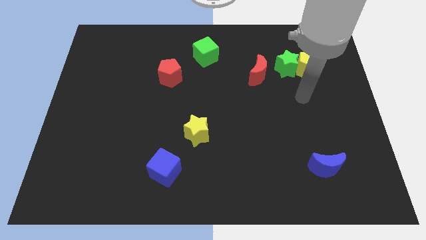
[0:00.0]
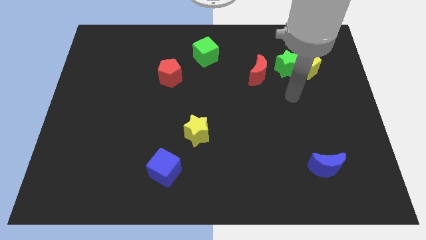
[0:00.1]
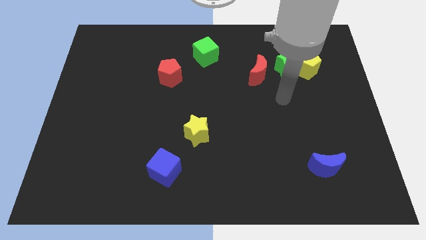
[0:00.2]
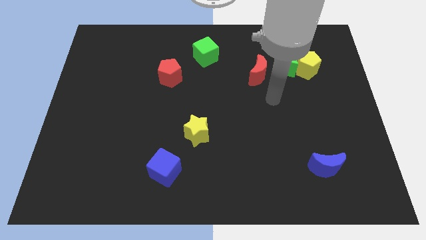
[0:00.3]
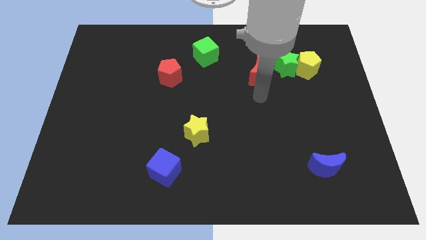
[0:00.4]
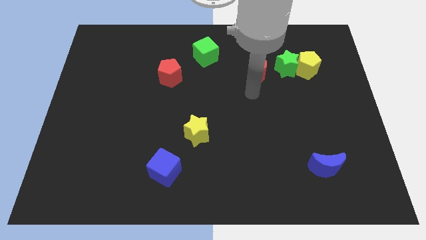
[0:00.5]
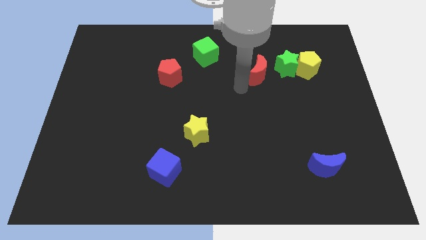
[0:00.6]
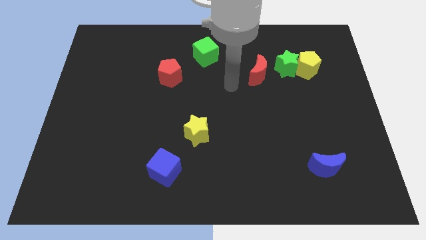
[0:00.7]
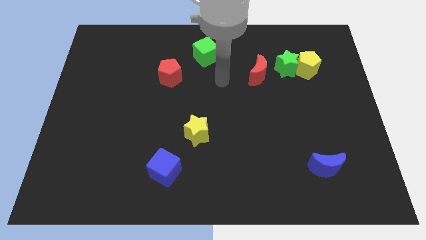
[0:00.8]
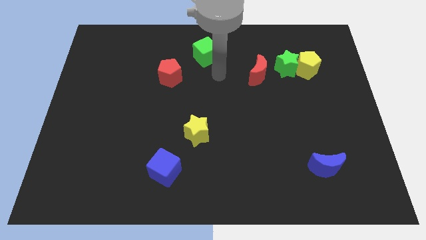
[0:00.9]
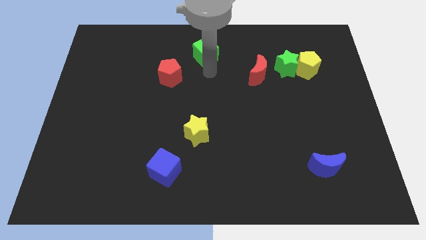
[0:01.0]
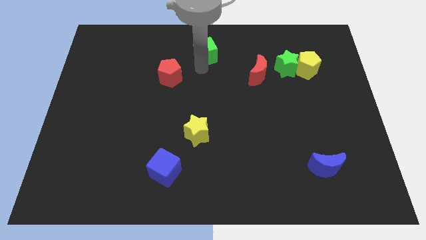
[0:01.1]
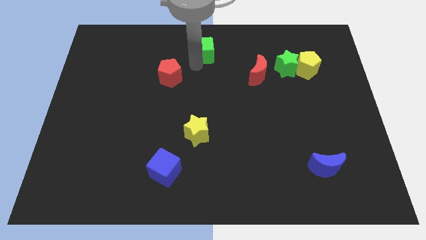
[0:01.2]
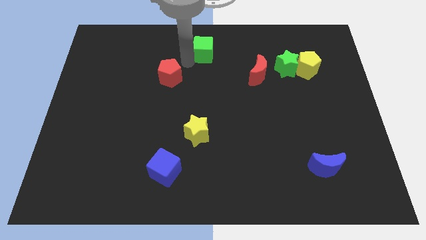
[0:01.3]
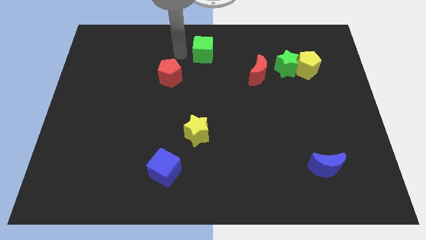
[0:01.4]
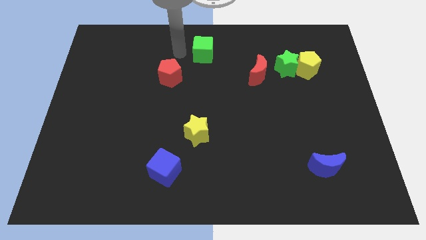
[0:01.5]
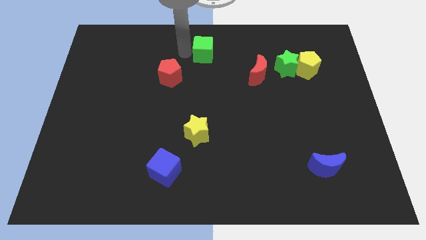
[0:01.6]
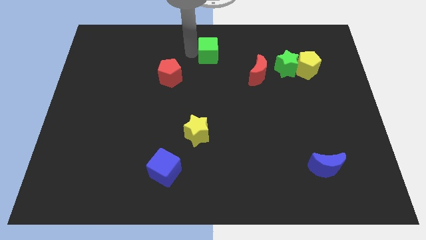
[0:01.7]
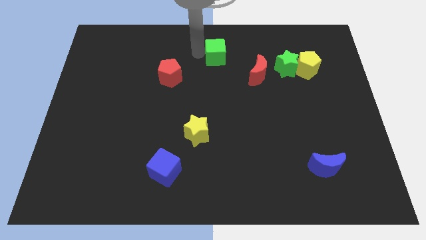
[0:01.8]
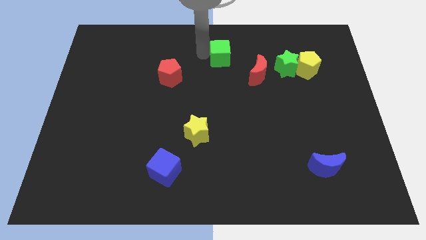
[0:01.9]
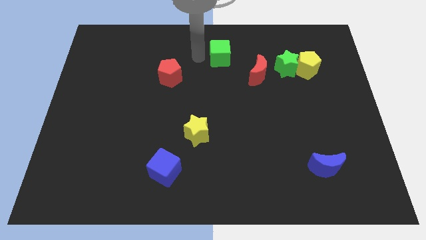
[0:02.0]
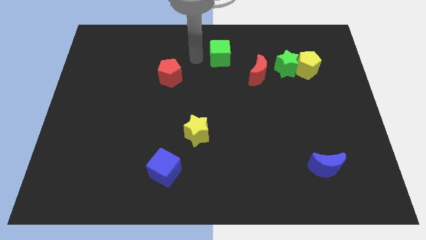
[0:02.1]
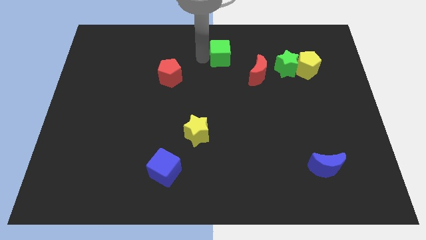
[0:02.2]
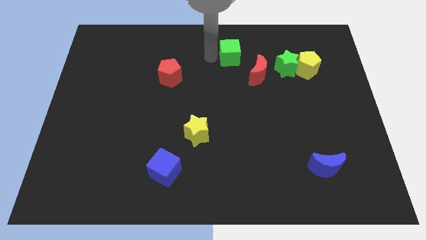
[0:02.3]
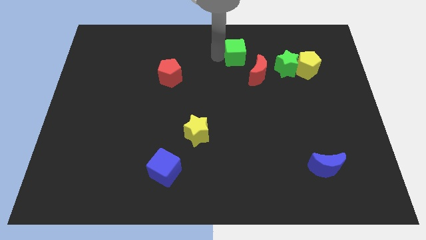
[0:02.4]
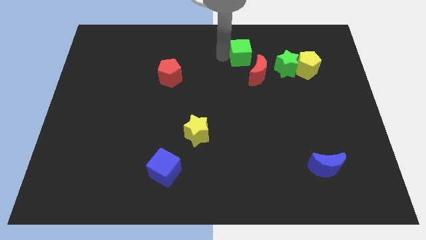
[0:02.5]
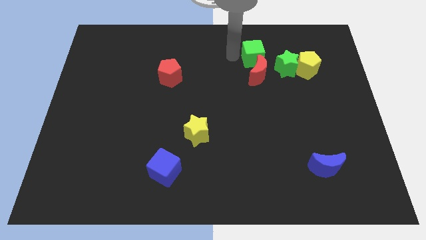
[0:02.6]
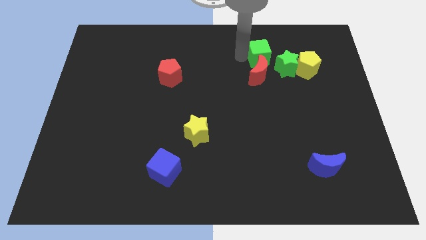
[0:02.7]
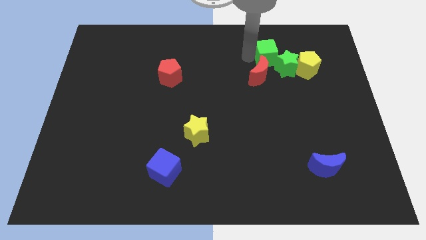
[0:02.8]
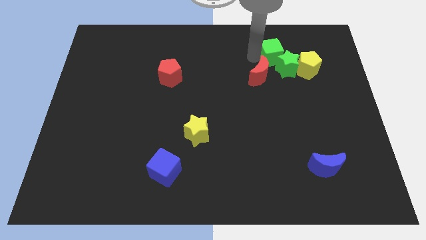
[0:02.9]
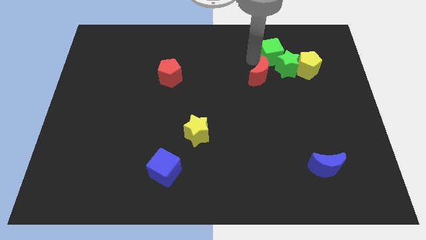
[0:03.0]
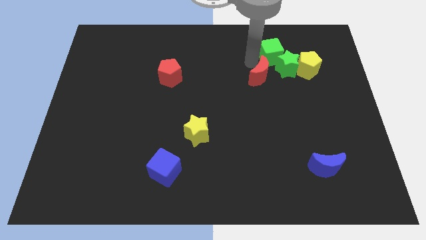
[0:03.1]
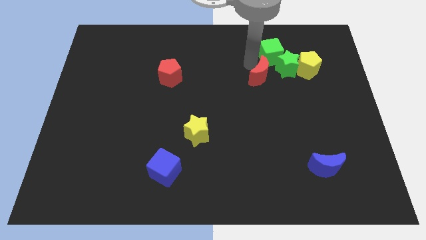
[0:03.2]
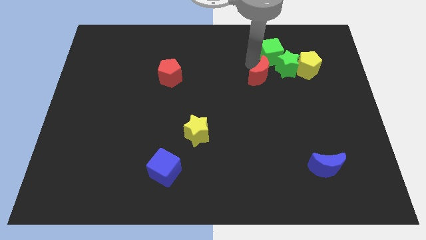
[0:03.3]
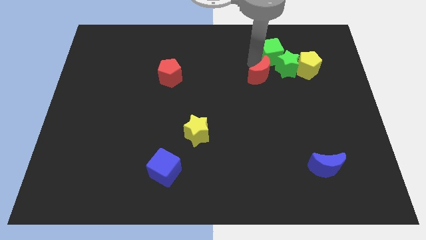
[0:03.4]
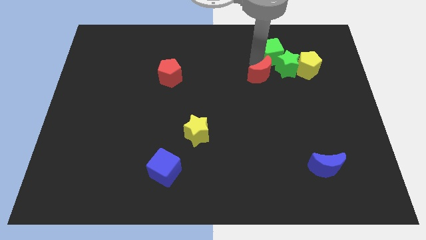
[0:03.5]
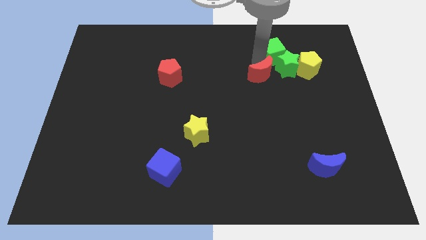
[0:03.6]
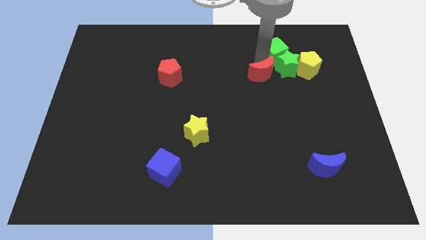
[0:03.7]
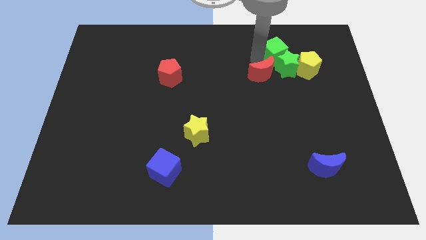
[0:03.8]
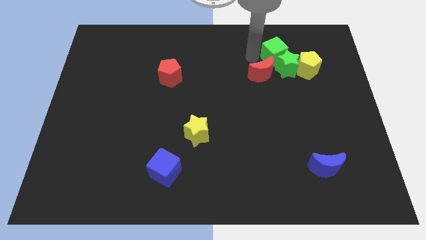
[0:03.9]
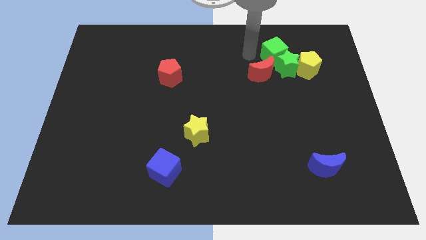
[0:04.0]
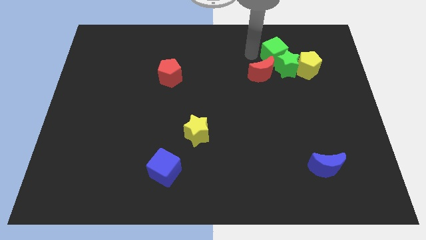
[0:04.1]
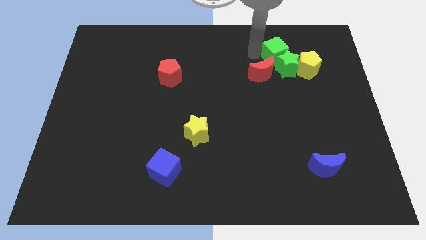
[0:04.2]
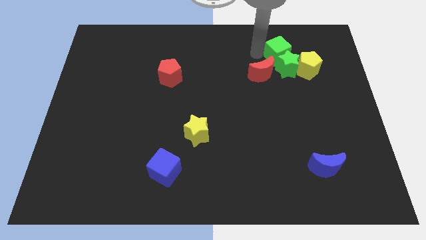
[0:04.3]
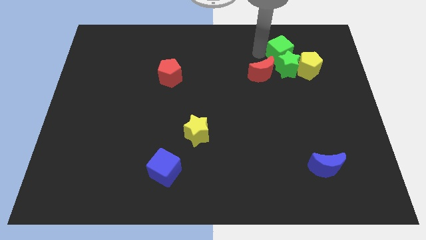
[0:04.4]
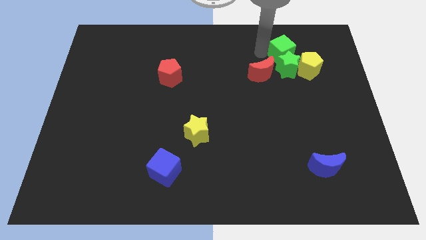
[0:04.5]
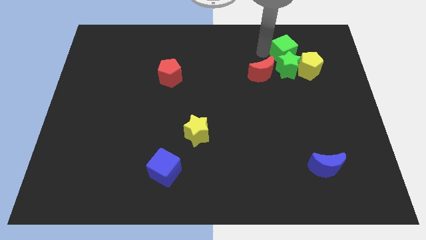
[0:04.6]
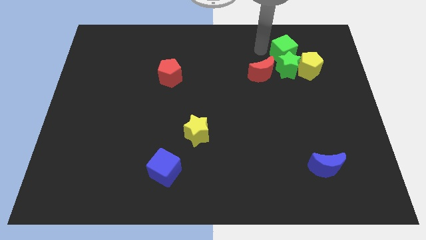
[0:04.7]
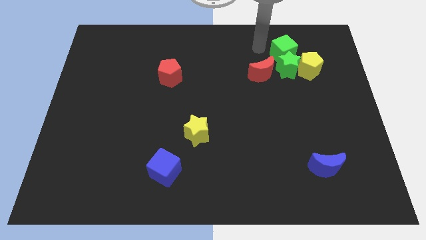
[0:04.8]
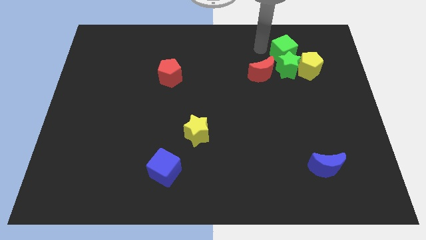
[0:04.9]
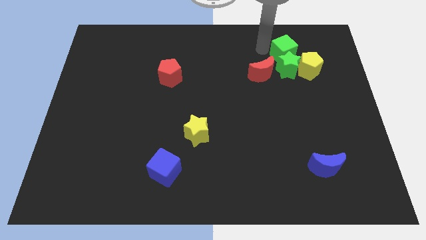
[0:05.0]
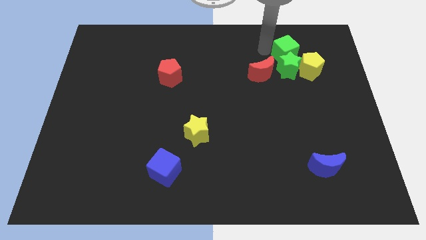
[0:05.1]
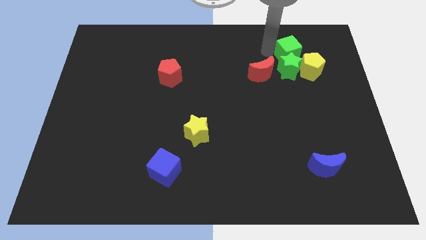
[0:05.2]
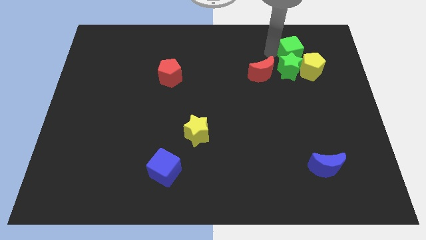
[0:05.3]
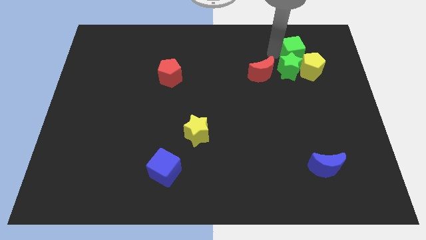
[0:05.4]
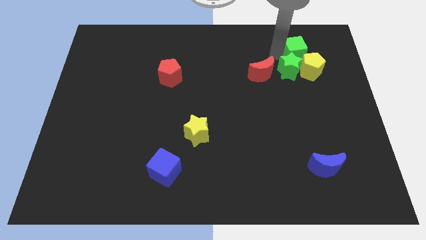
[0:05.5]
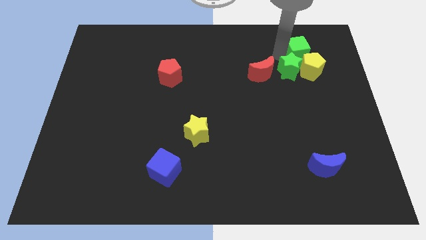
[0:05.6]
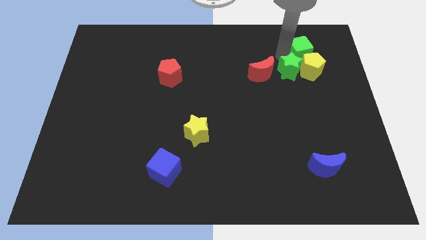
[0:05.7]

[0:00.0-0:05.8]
push the green cube close to the yellow pentagon

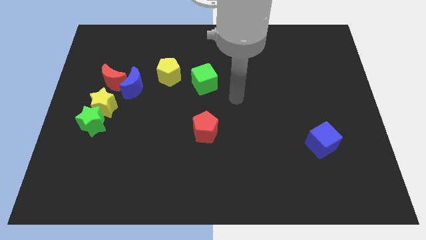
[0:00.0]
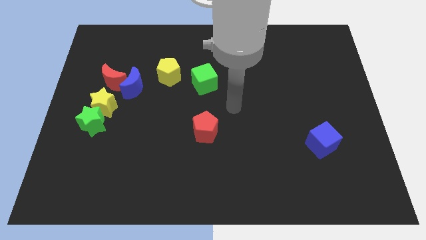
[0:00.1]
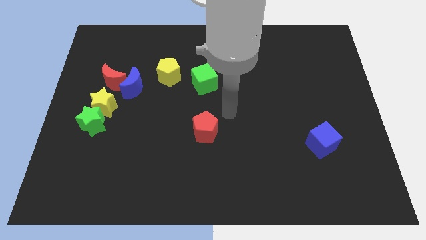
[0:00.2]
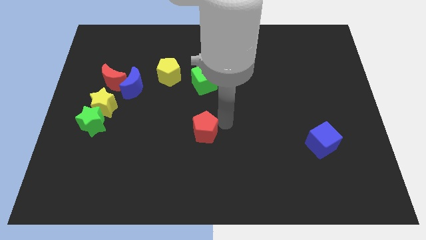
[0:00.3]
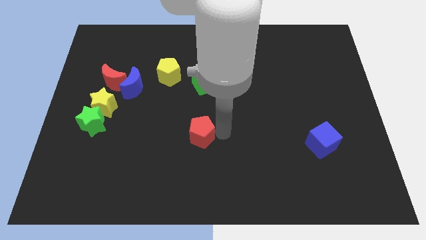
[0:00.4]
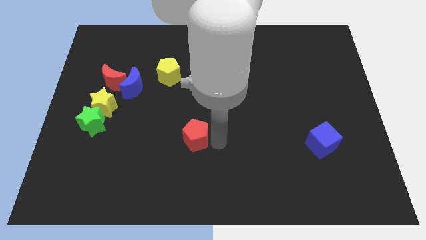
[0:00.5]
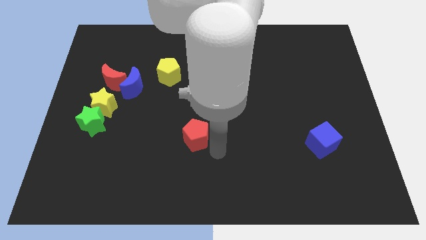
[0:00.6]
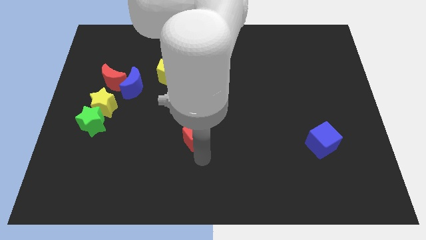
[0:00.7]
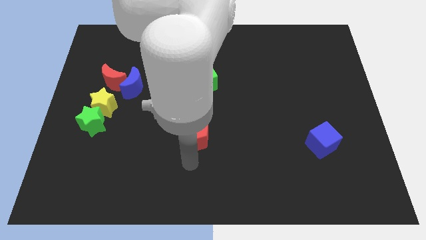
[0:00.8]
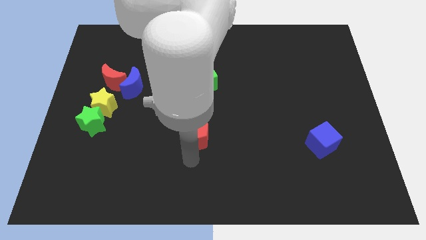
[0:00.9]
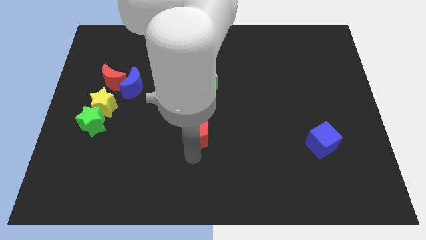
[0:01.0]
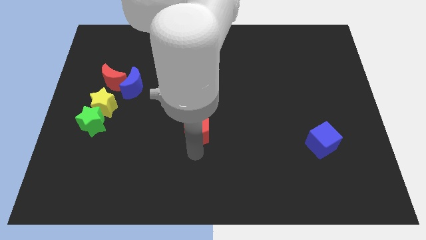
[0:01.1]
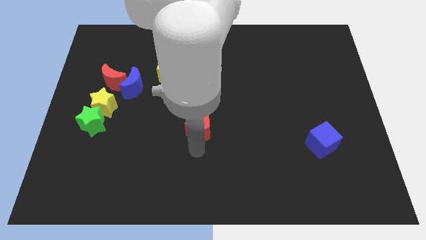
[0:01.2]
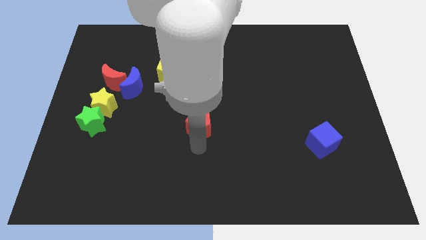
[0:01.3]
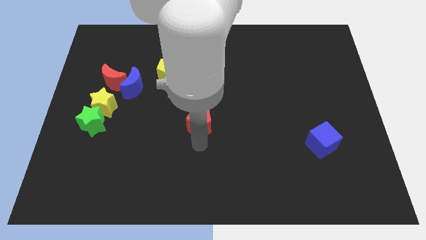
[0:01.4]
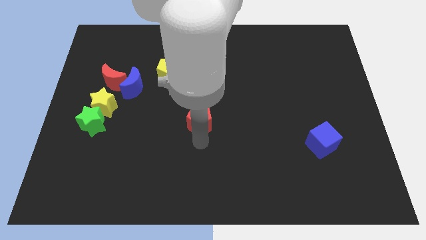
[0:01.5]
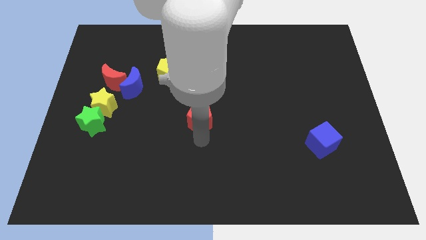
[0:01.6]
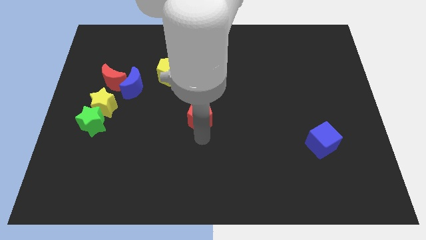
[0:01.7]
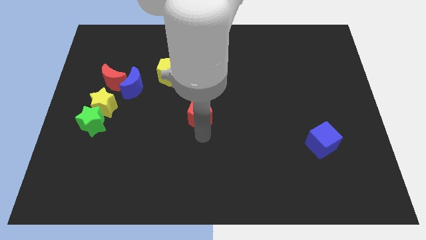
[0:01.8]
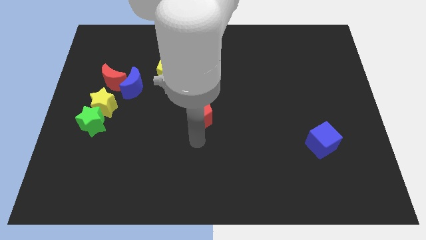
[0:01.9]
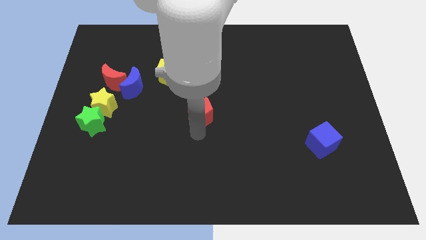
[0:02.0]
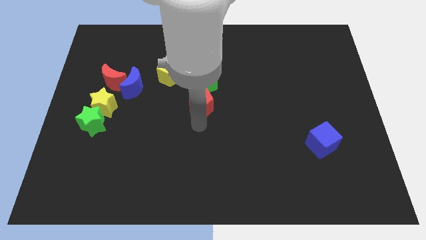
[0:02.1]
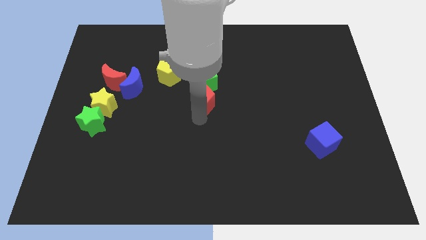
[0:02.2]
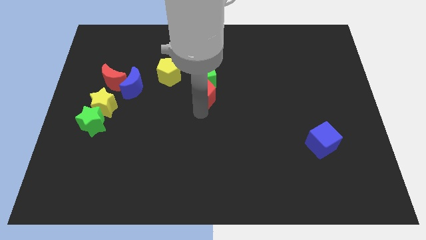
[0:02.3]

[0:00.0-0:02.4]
move the red pentagon close to the green cube
